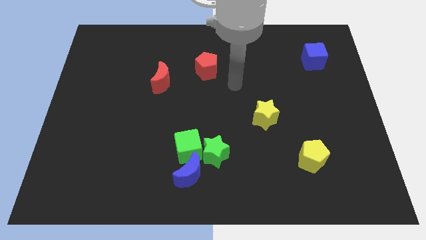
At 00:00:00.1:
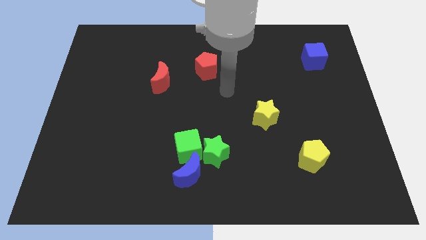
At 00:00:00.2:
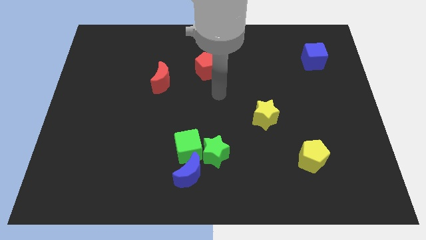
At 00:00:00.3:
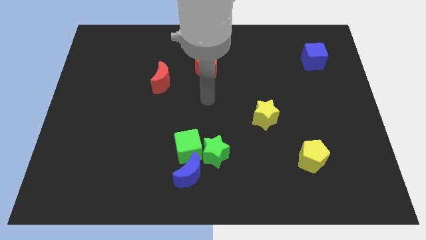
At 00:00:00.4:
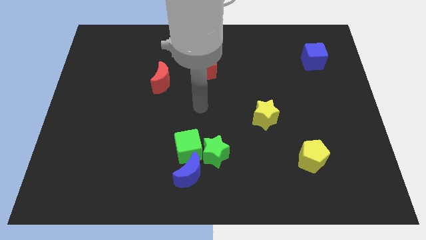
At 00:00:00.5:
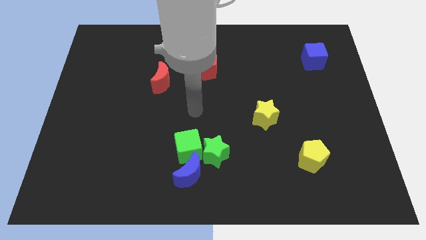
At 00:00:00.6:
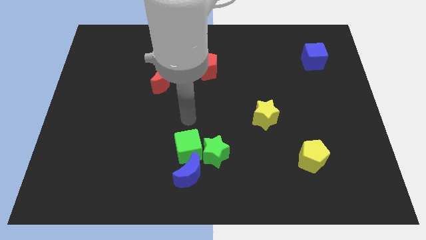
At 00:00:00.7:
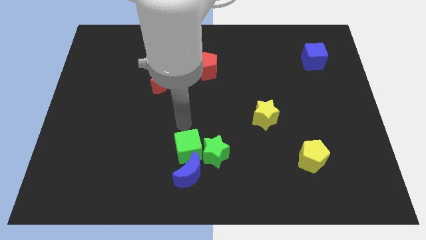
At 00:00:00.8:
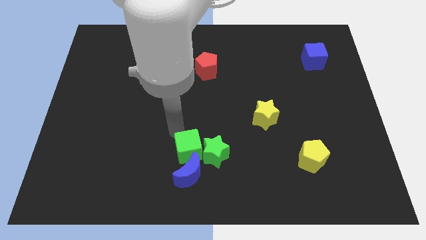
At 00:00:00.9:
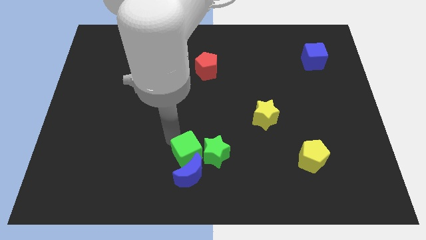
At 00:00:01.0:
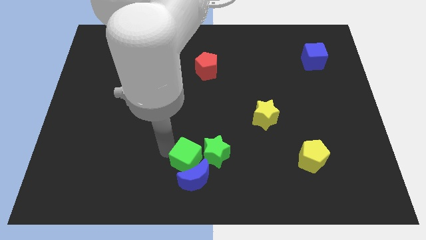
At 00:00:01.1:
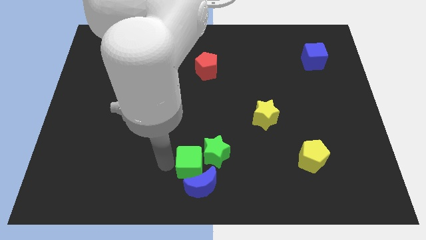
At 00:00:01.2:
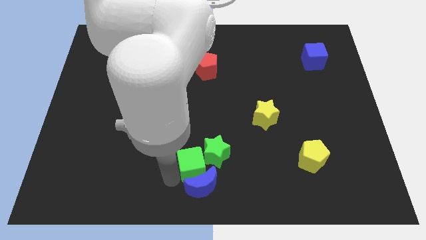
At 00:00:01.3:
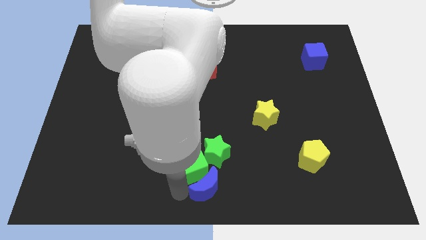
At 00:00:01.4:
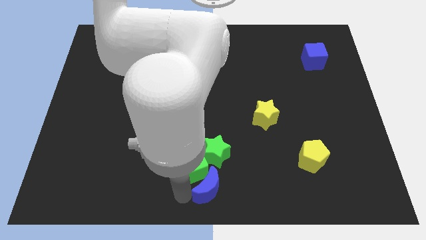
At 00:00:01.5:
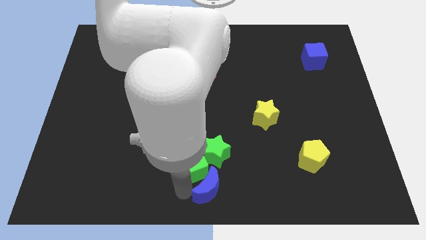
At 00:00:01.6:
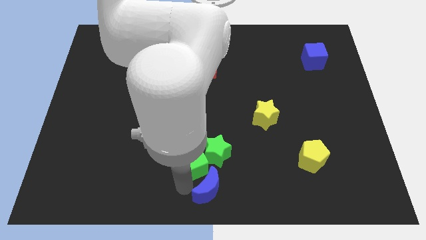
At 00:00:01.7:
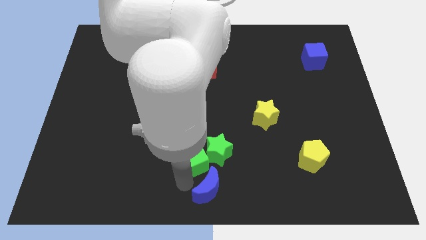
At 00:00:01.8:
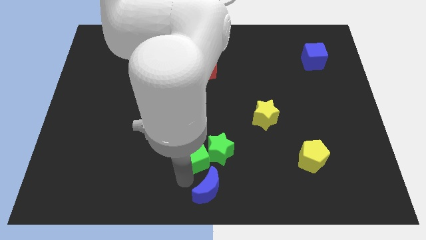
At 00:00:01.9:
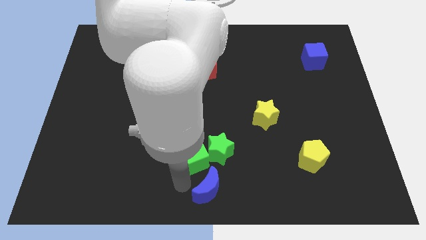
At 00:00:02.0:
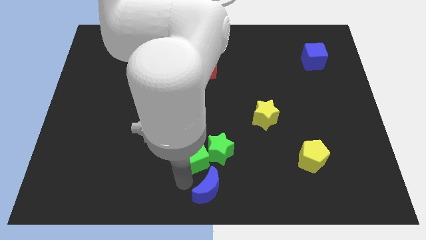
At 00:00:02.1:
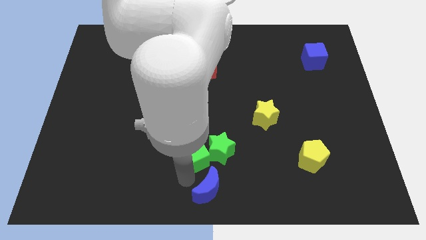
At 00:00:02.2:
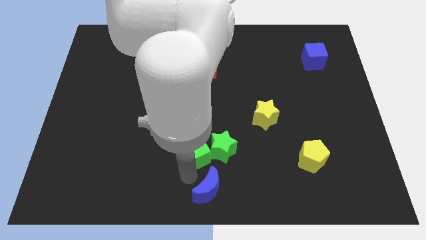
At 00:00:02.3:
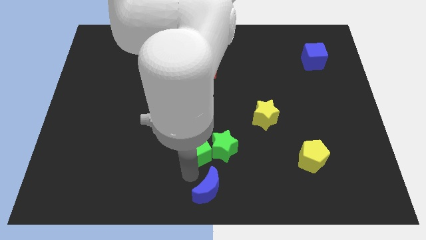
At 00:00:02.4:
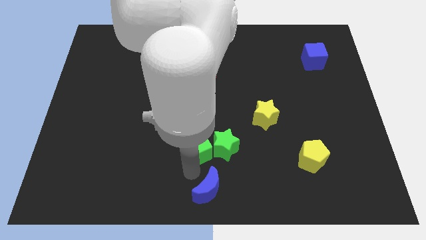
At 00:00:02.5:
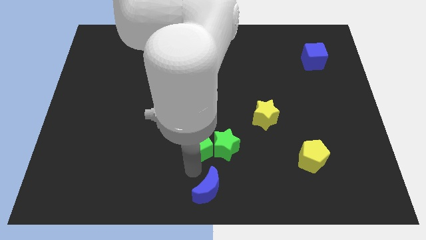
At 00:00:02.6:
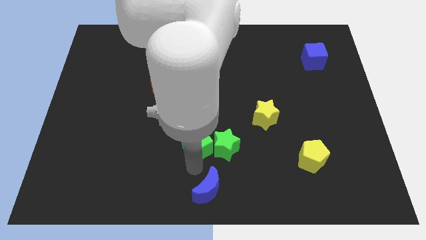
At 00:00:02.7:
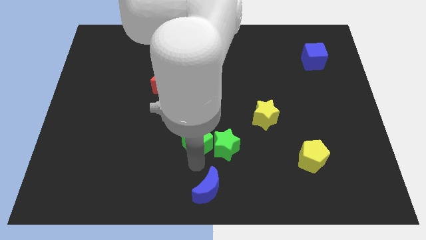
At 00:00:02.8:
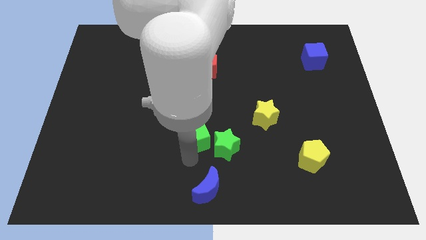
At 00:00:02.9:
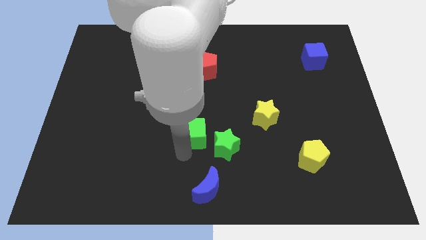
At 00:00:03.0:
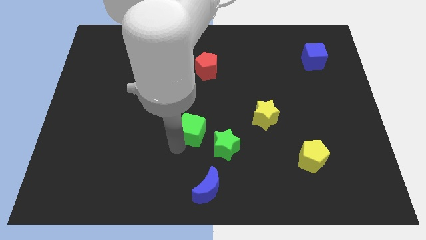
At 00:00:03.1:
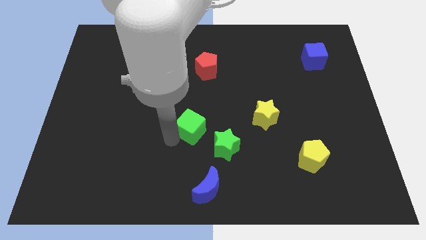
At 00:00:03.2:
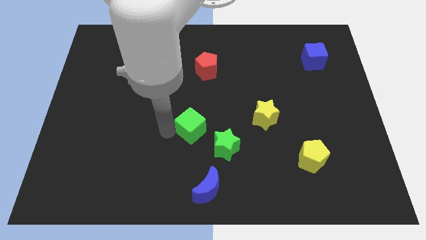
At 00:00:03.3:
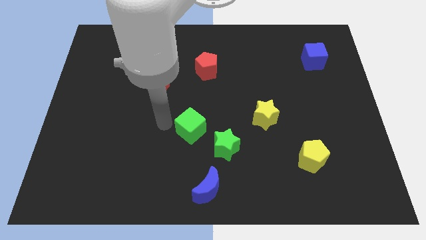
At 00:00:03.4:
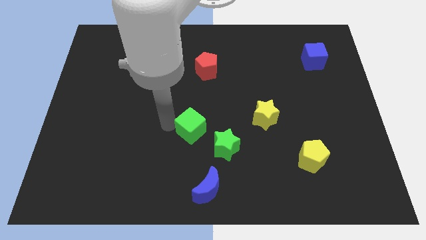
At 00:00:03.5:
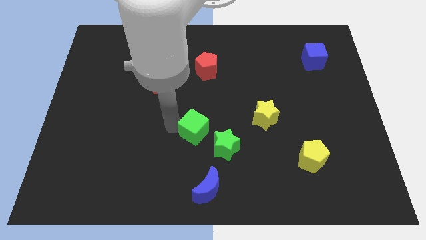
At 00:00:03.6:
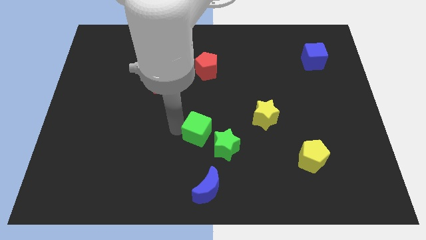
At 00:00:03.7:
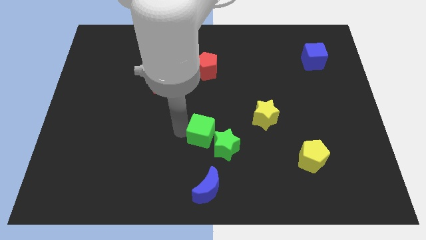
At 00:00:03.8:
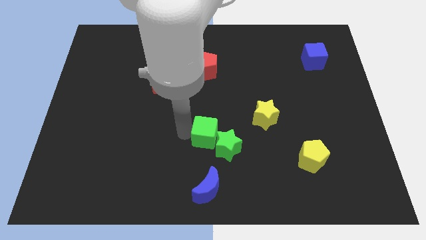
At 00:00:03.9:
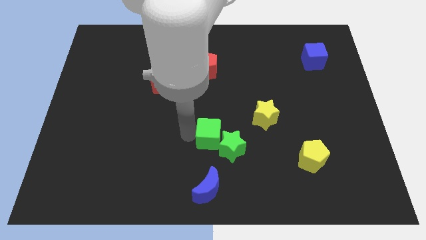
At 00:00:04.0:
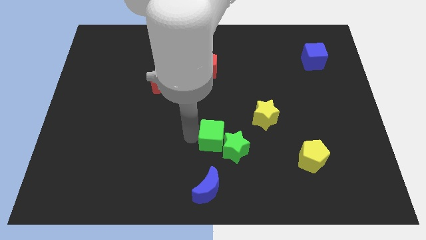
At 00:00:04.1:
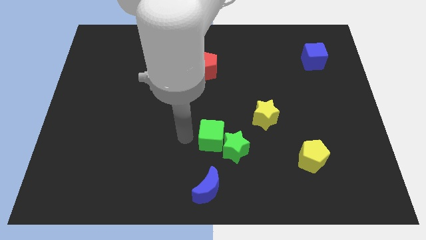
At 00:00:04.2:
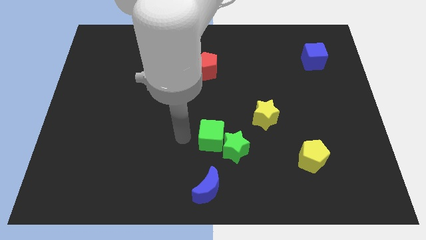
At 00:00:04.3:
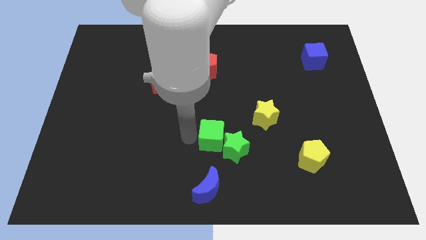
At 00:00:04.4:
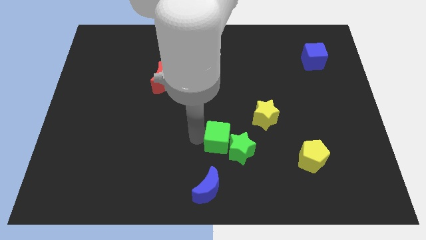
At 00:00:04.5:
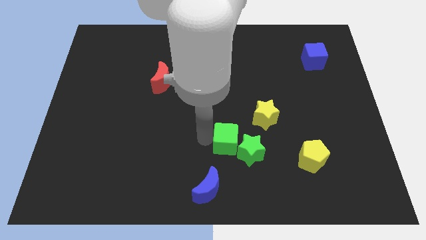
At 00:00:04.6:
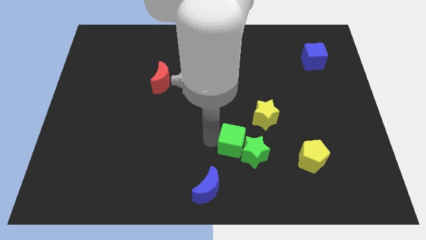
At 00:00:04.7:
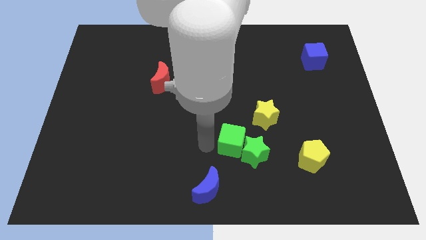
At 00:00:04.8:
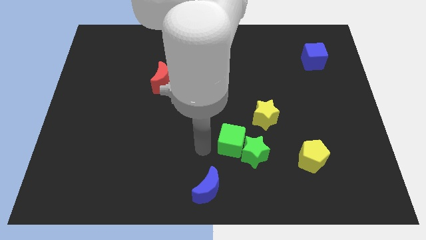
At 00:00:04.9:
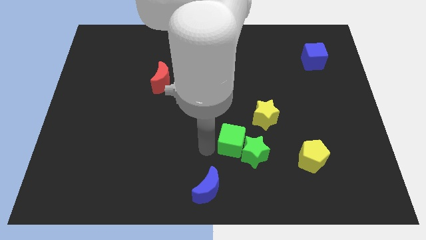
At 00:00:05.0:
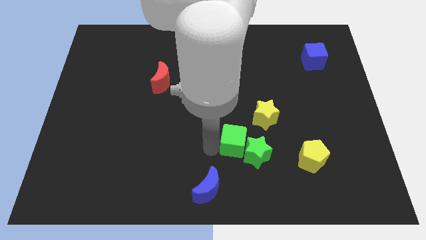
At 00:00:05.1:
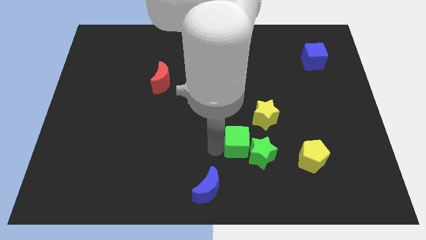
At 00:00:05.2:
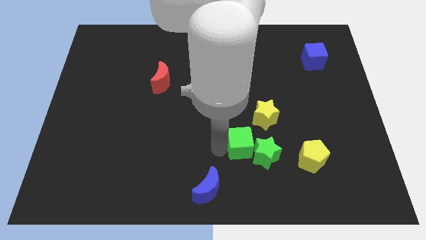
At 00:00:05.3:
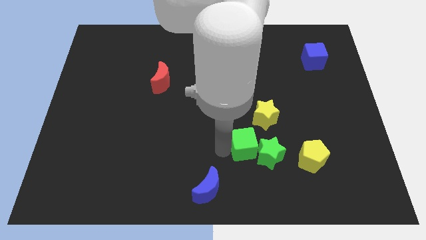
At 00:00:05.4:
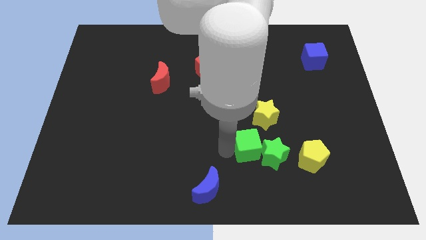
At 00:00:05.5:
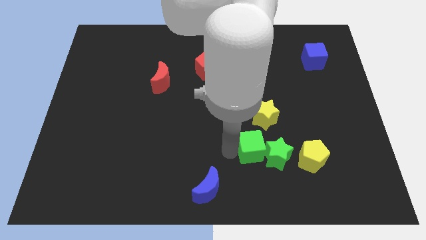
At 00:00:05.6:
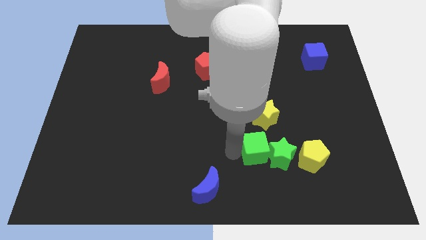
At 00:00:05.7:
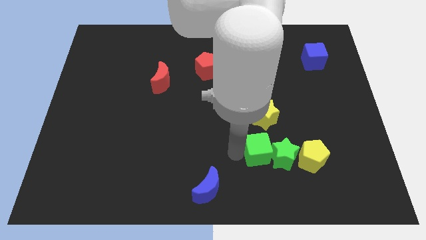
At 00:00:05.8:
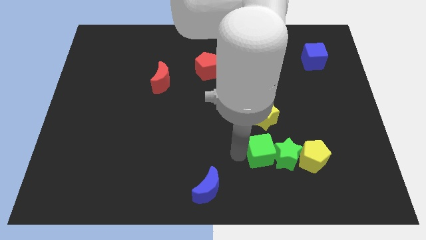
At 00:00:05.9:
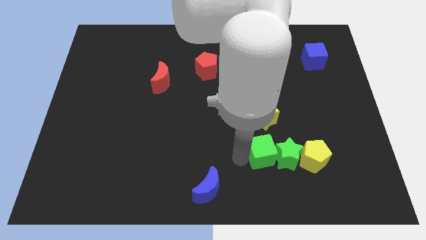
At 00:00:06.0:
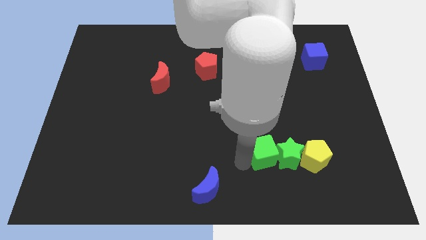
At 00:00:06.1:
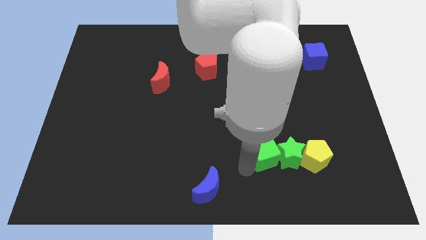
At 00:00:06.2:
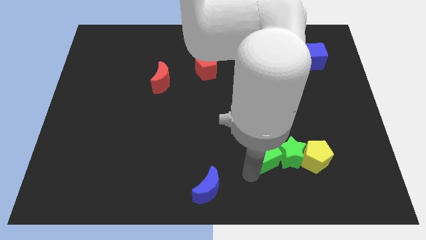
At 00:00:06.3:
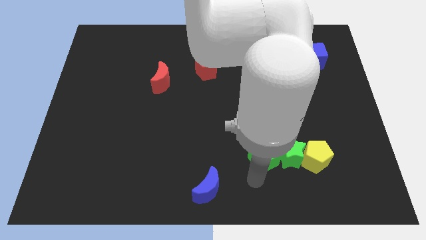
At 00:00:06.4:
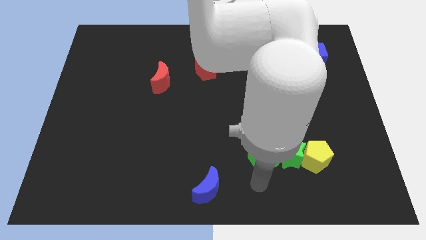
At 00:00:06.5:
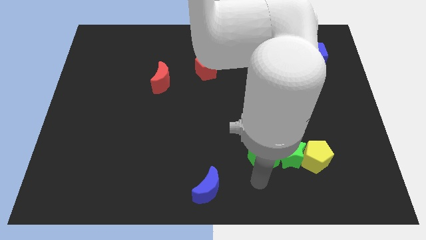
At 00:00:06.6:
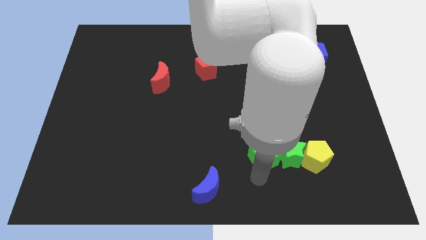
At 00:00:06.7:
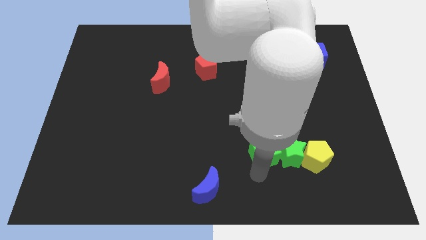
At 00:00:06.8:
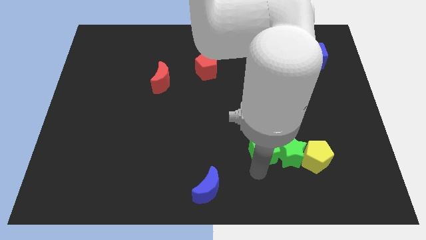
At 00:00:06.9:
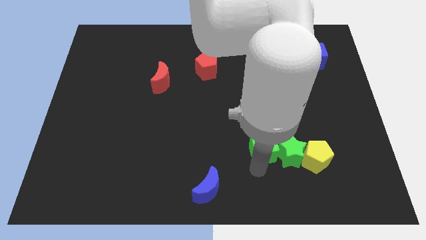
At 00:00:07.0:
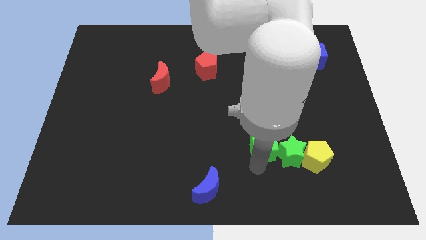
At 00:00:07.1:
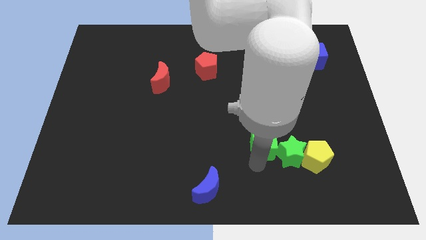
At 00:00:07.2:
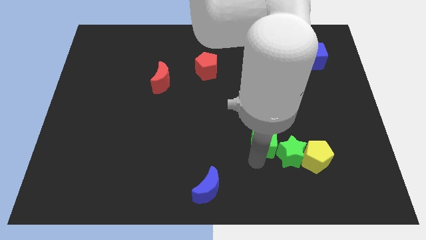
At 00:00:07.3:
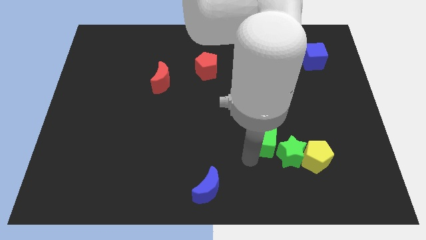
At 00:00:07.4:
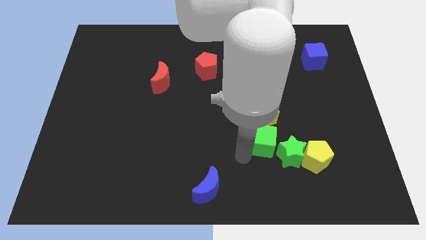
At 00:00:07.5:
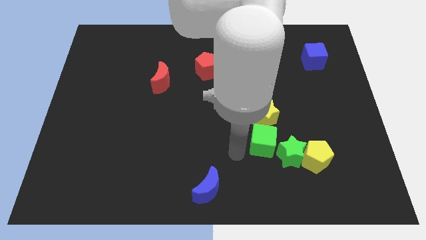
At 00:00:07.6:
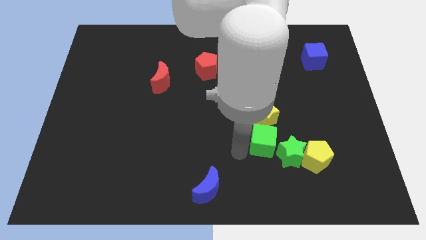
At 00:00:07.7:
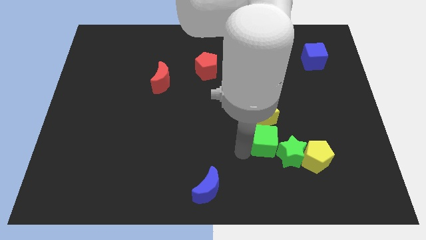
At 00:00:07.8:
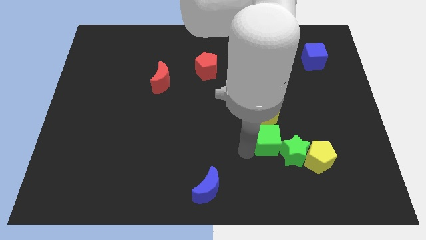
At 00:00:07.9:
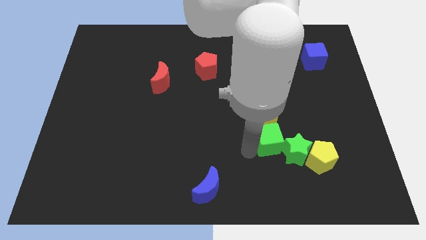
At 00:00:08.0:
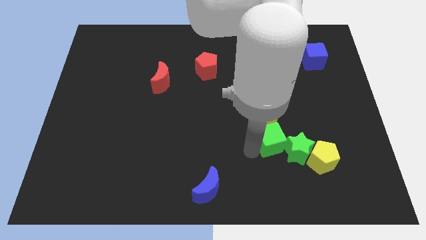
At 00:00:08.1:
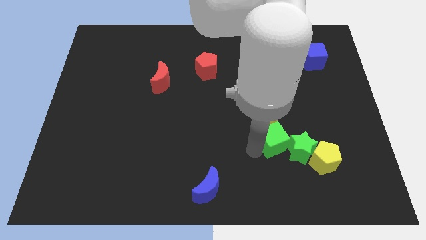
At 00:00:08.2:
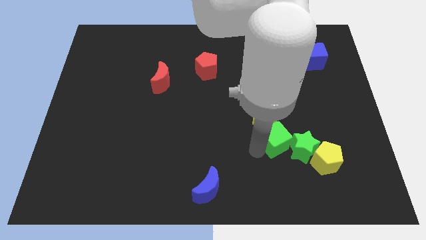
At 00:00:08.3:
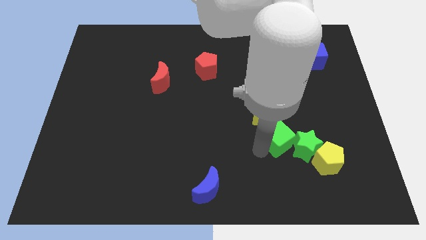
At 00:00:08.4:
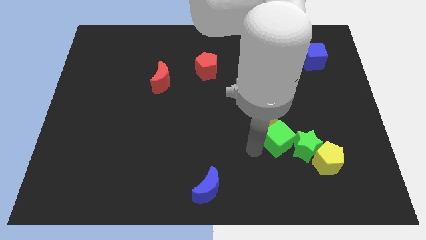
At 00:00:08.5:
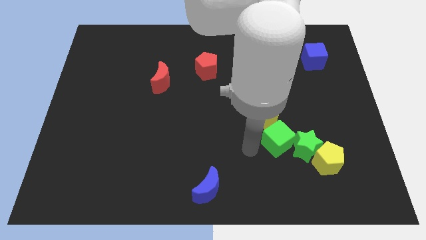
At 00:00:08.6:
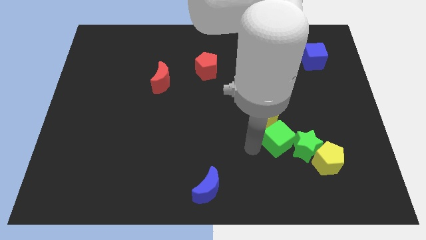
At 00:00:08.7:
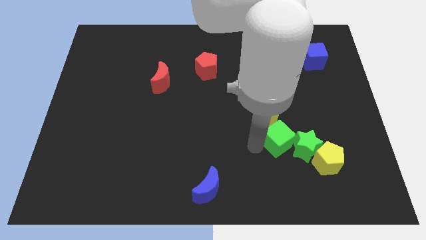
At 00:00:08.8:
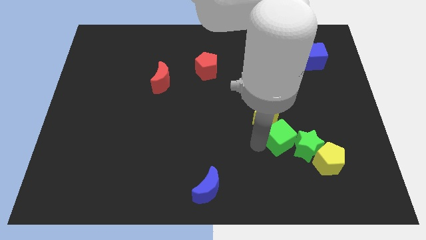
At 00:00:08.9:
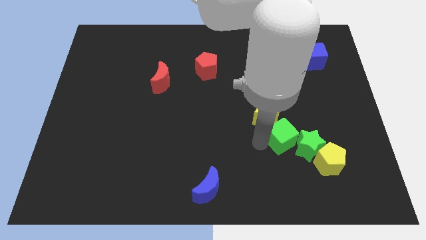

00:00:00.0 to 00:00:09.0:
push the green cube to the right
